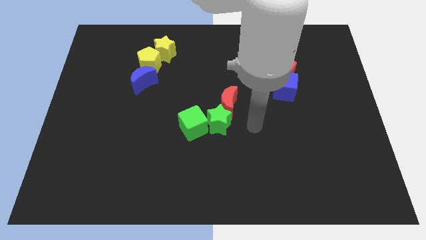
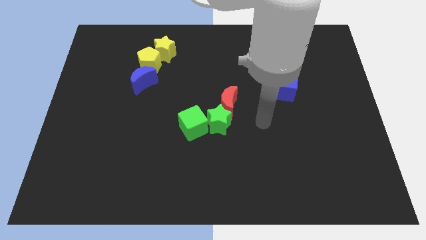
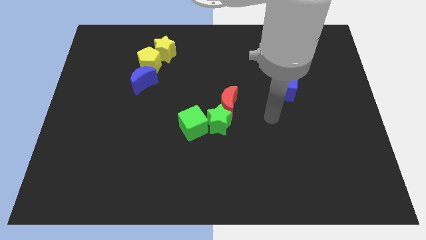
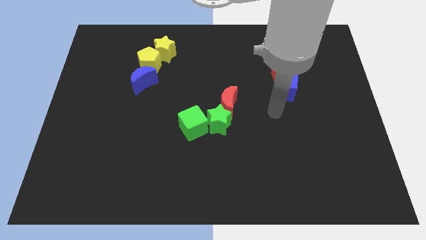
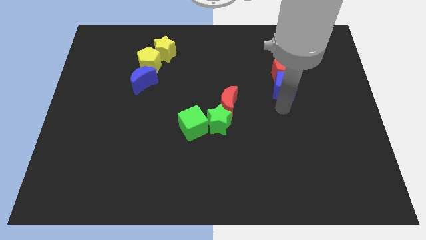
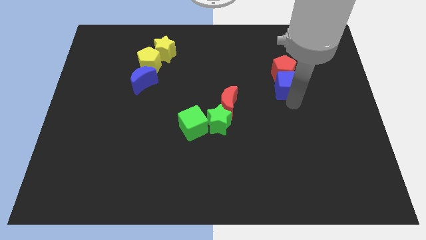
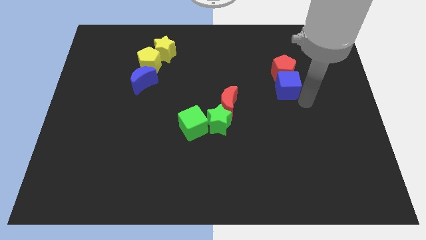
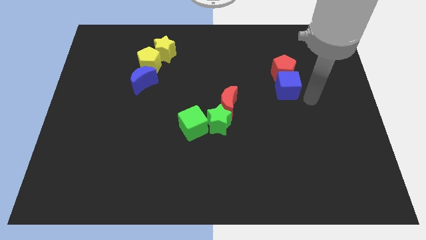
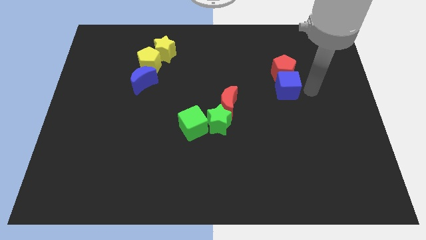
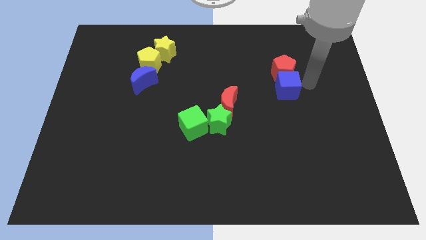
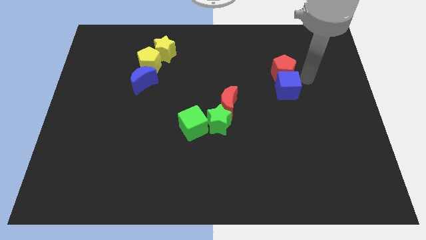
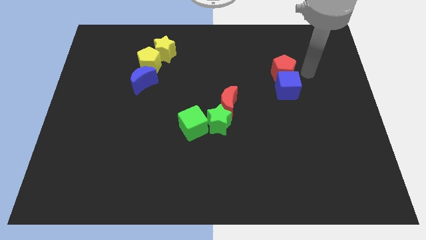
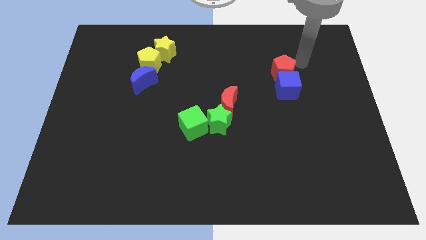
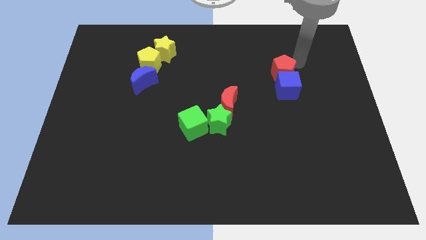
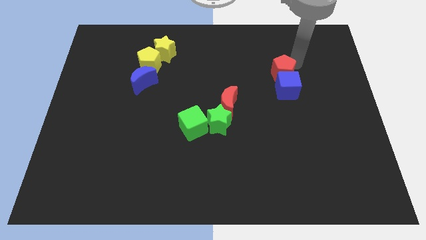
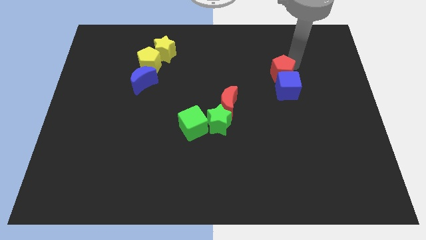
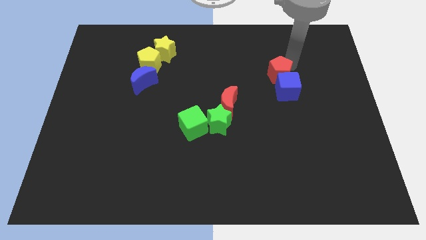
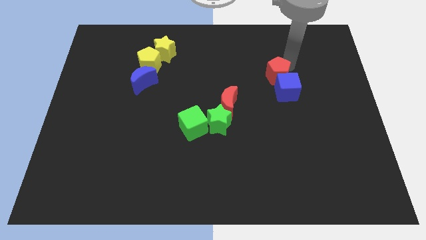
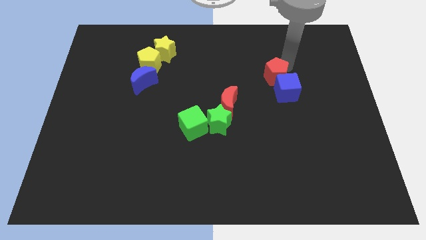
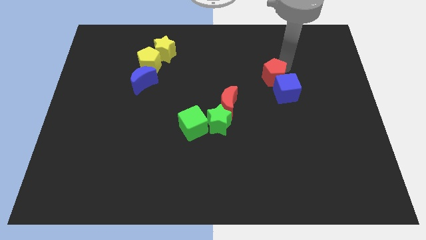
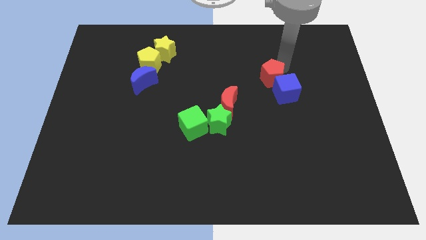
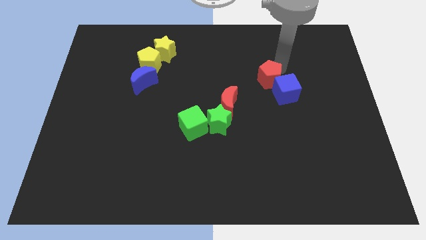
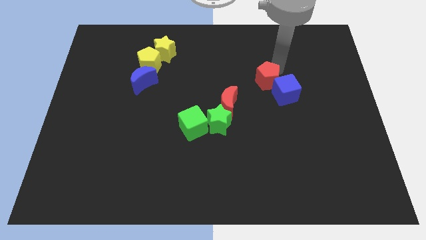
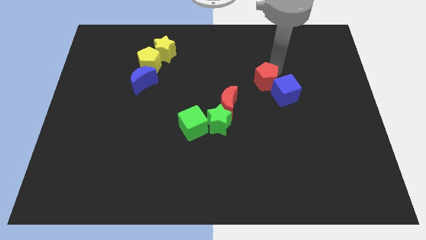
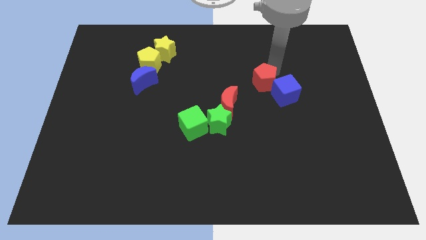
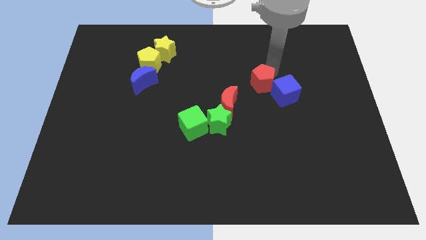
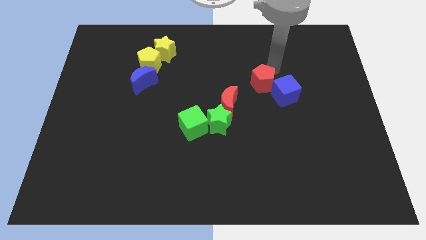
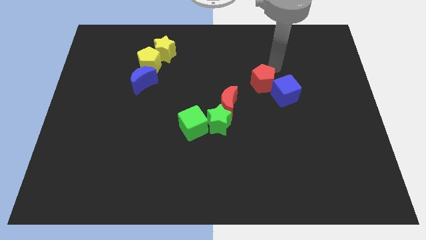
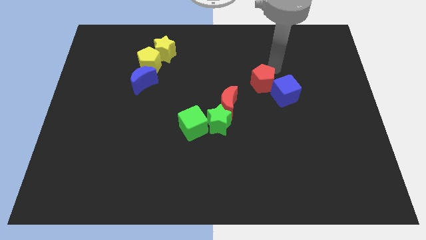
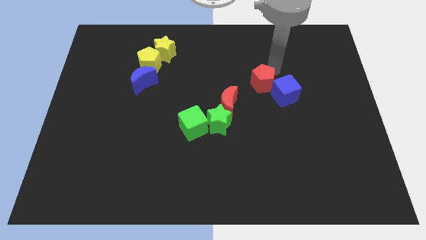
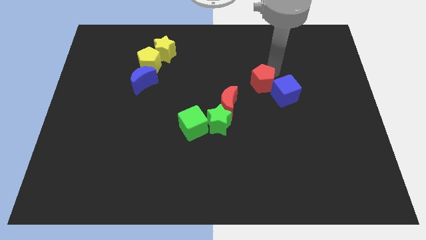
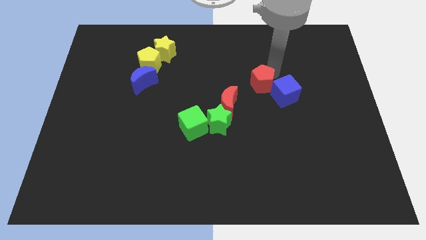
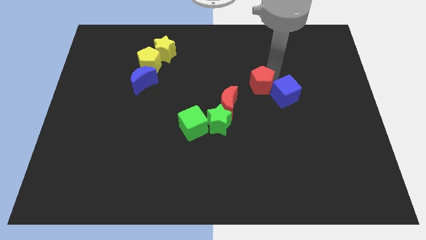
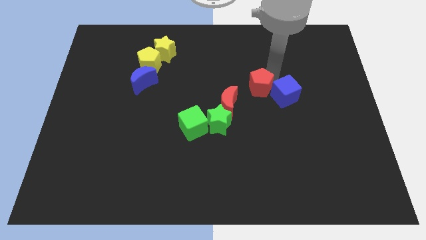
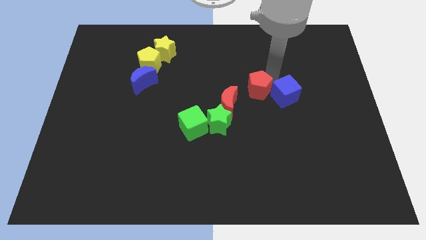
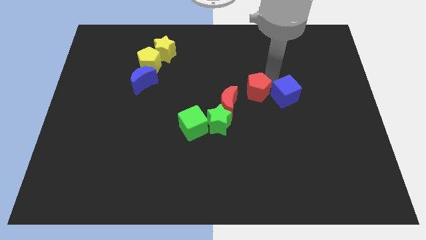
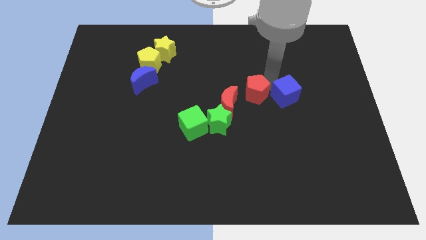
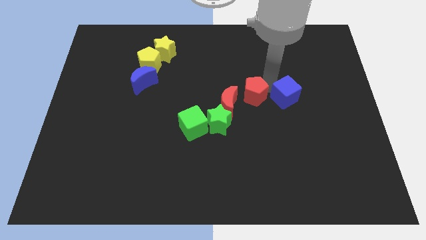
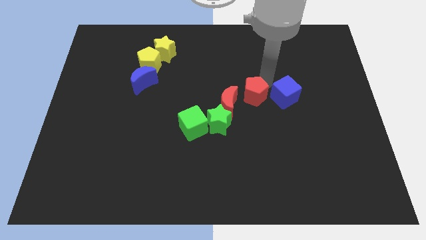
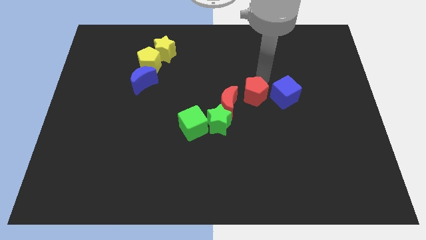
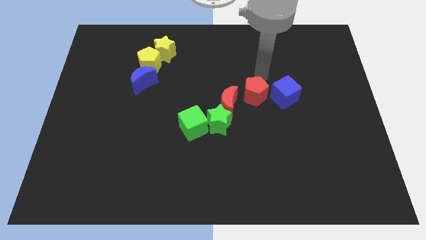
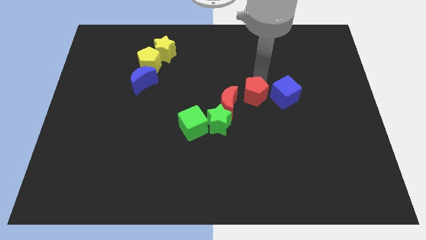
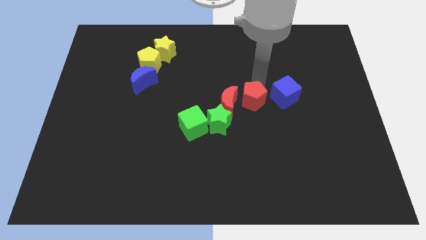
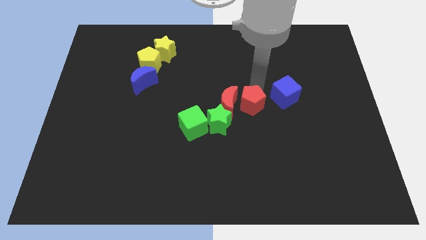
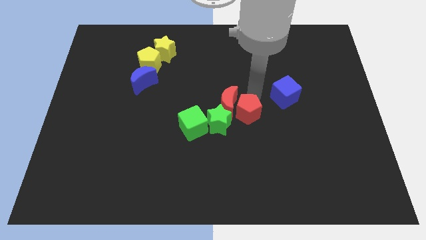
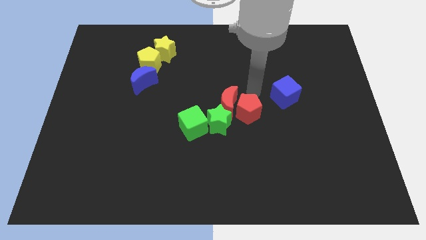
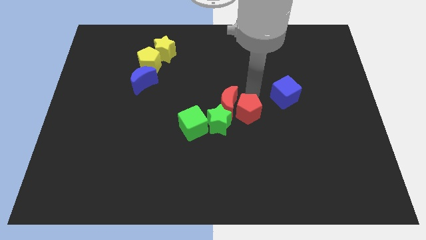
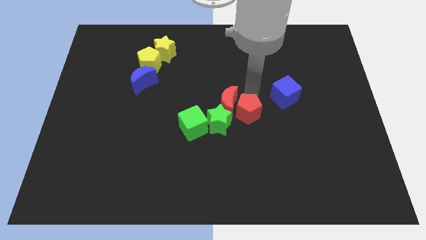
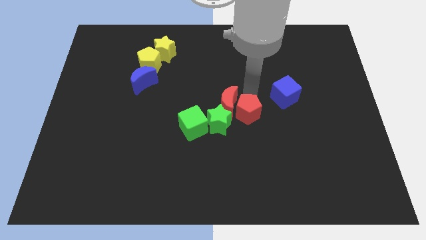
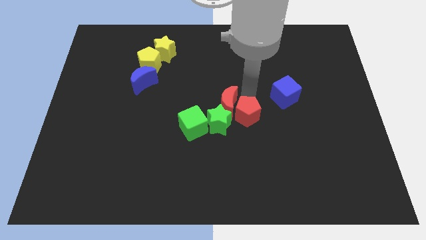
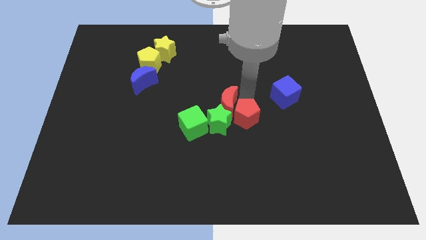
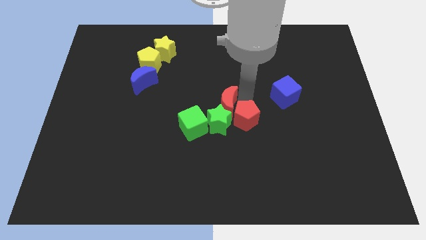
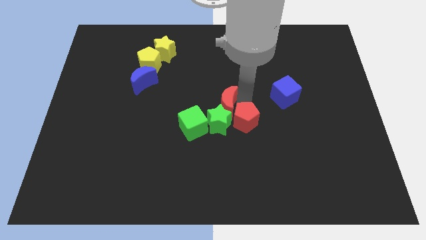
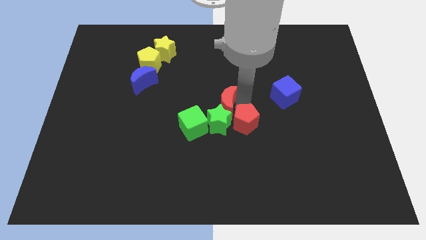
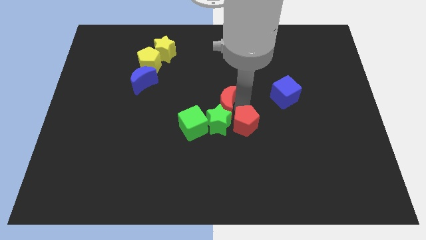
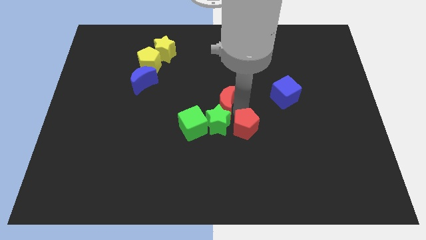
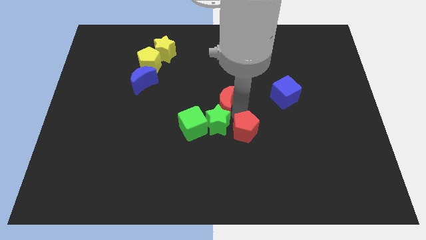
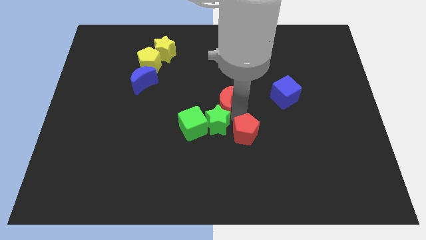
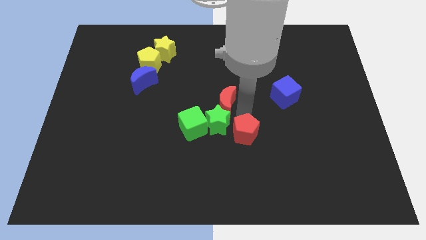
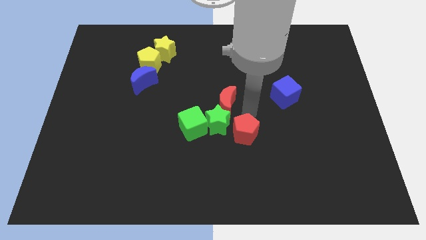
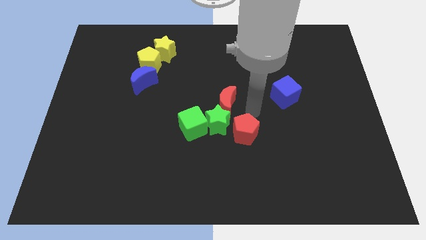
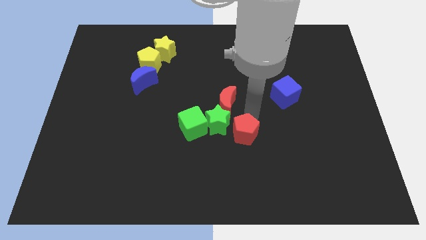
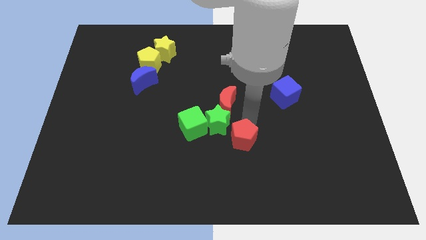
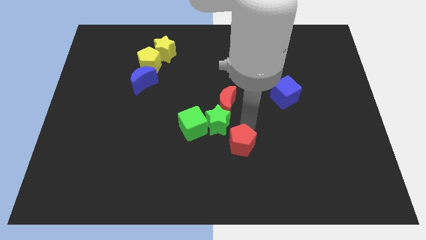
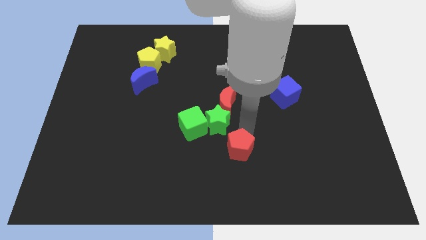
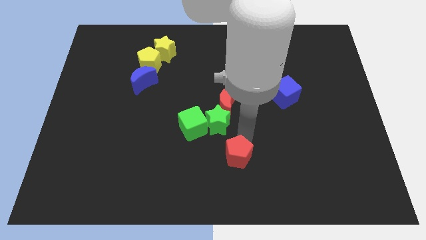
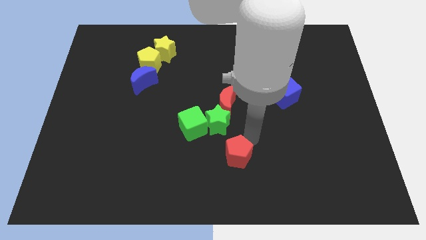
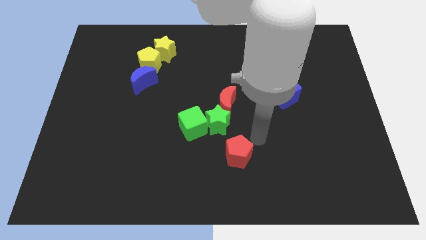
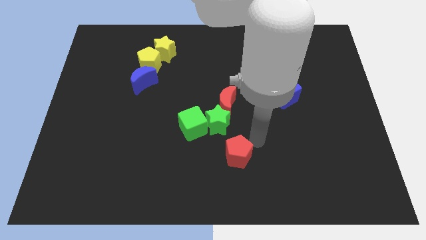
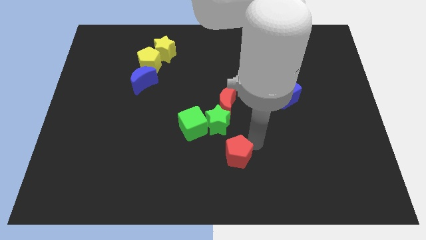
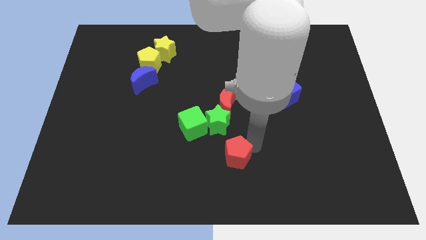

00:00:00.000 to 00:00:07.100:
move the red pentagon to the bottom side
